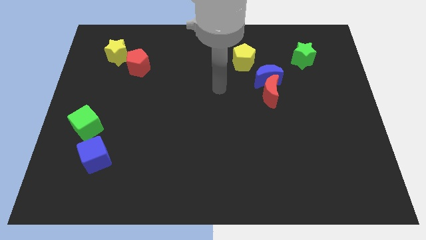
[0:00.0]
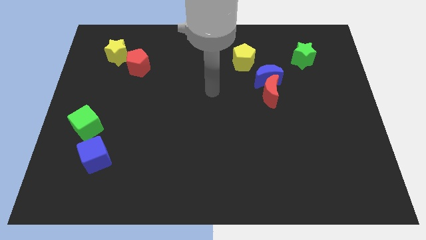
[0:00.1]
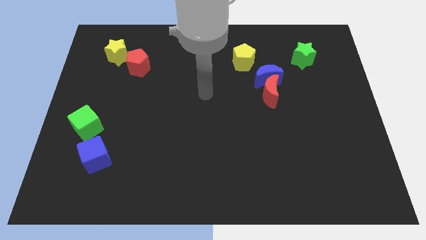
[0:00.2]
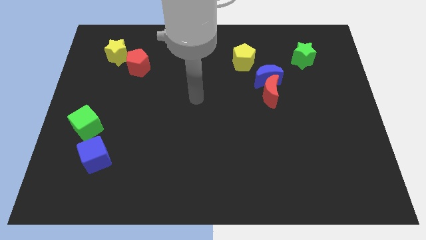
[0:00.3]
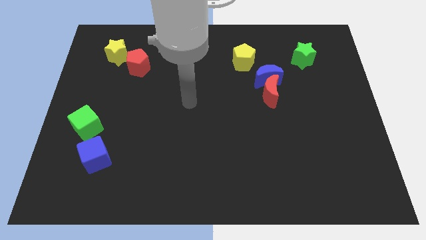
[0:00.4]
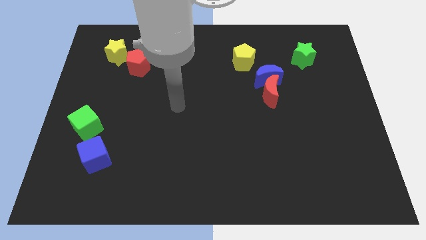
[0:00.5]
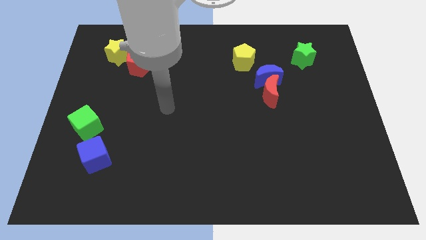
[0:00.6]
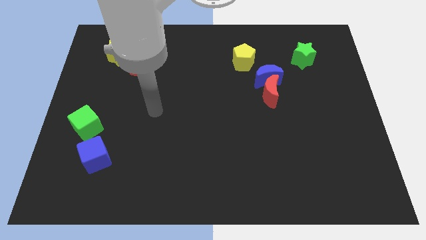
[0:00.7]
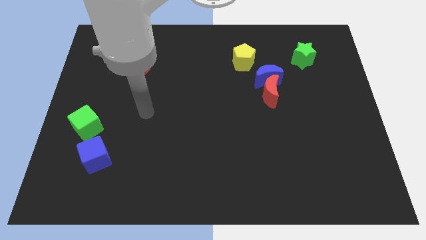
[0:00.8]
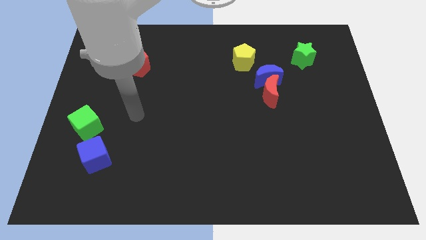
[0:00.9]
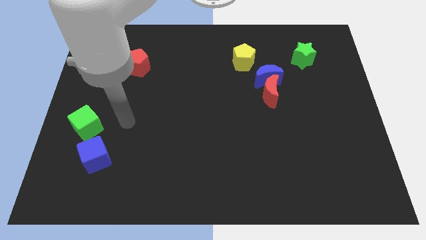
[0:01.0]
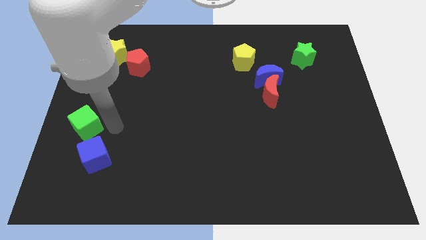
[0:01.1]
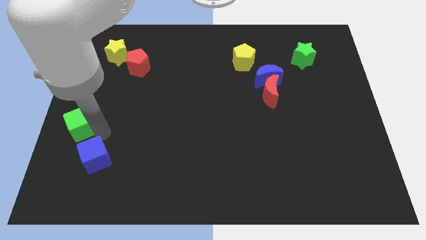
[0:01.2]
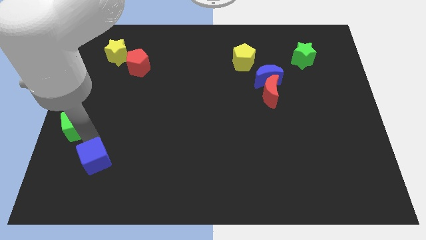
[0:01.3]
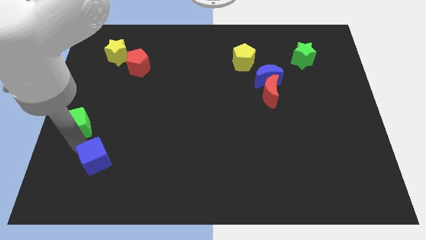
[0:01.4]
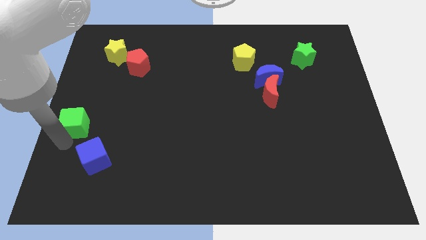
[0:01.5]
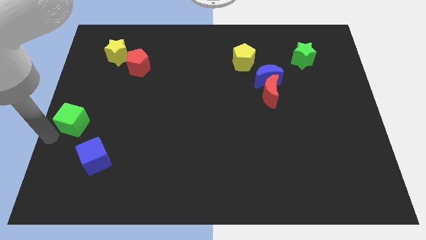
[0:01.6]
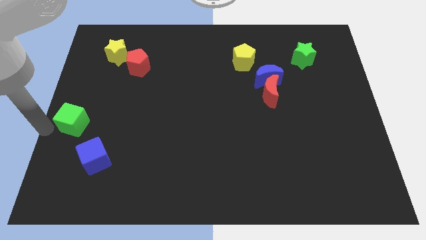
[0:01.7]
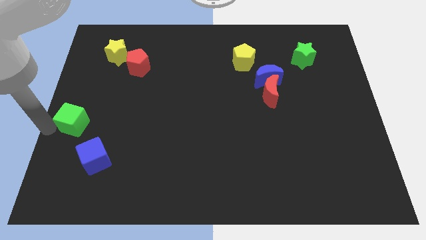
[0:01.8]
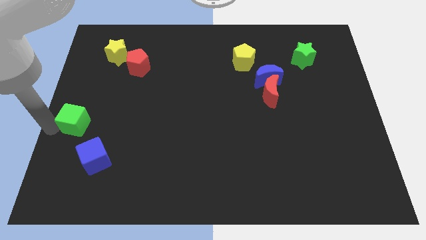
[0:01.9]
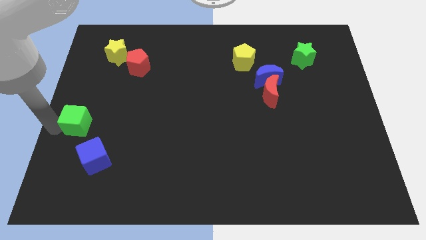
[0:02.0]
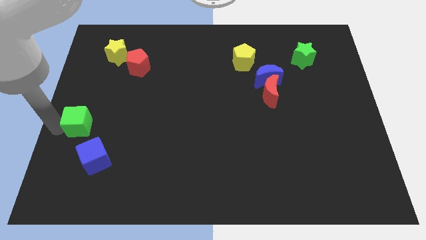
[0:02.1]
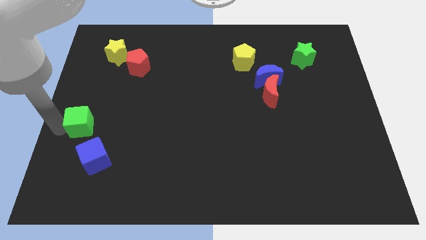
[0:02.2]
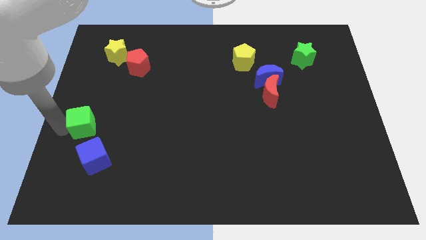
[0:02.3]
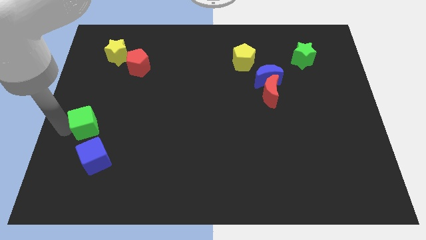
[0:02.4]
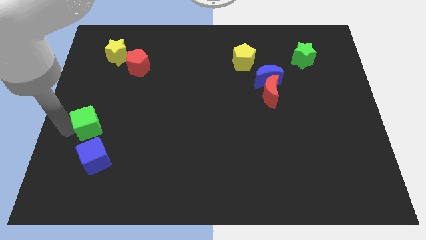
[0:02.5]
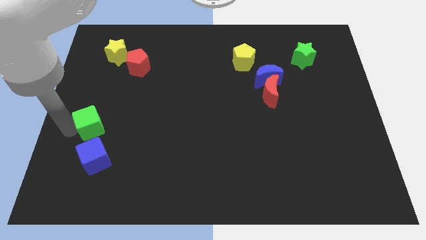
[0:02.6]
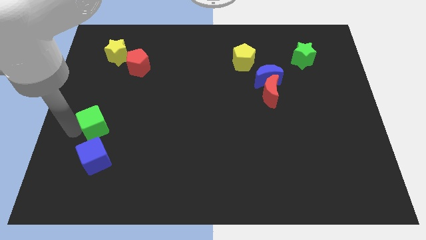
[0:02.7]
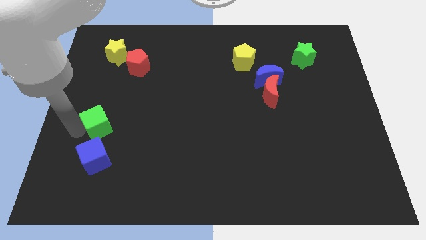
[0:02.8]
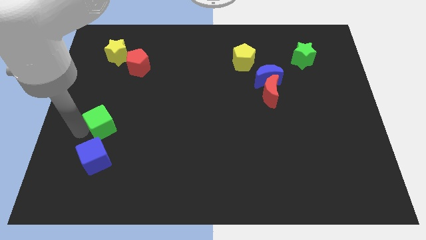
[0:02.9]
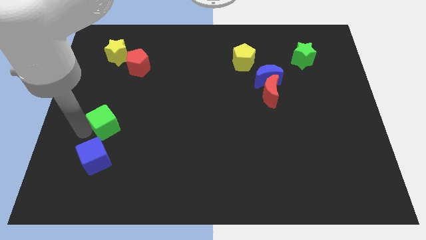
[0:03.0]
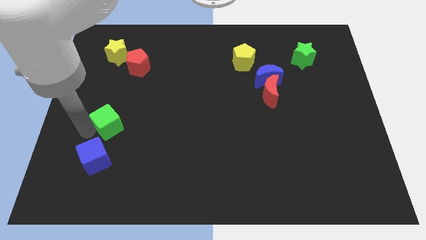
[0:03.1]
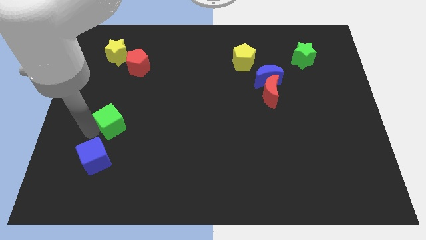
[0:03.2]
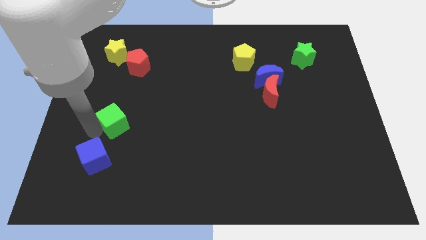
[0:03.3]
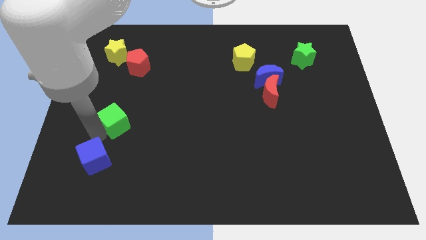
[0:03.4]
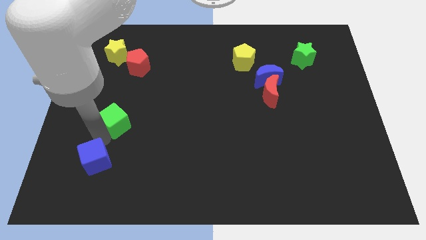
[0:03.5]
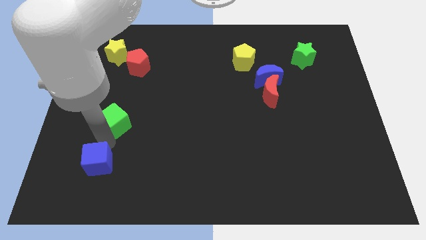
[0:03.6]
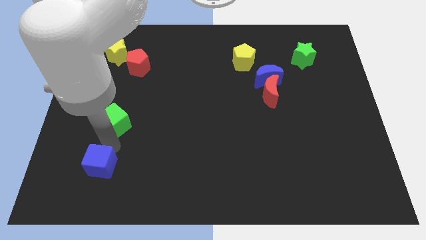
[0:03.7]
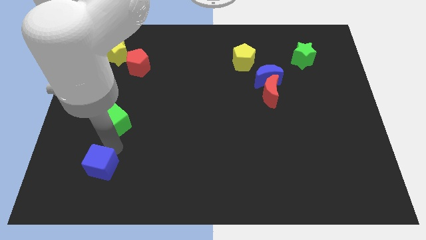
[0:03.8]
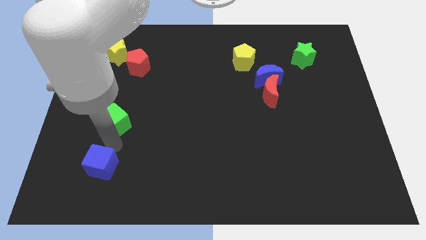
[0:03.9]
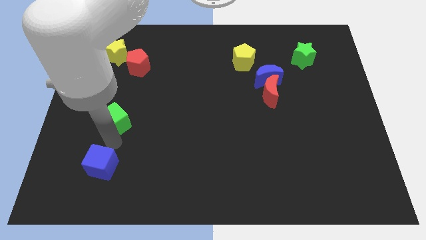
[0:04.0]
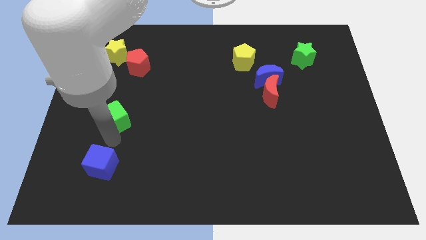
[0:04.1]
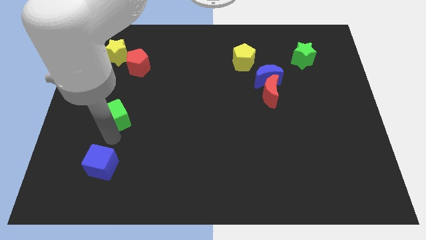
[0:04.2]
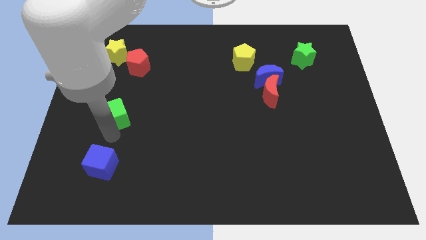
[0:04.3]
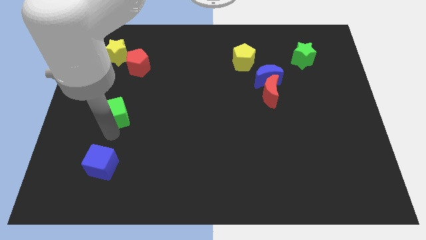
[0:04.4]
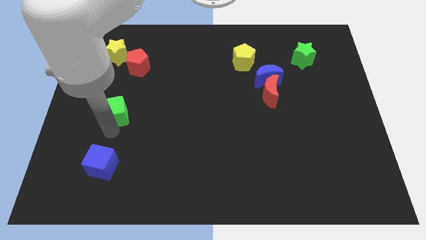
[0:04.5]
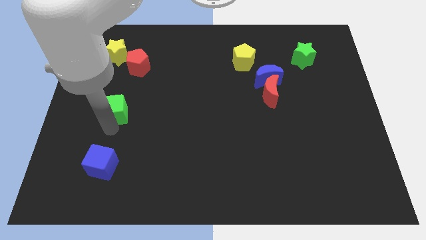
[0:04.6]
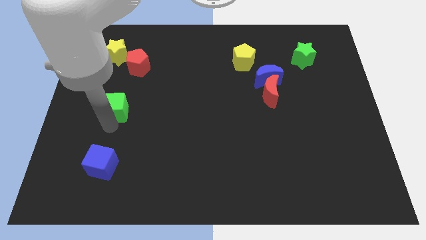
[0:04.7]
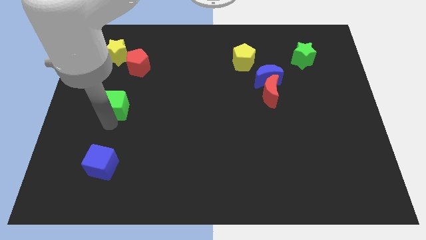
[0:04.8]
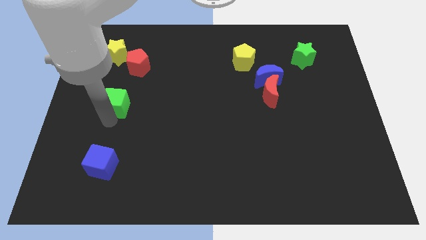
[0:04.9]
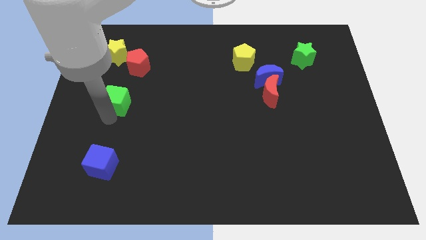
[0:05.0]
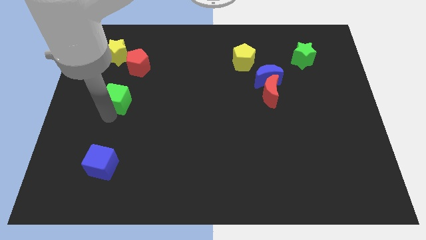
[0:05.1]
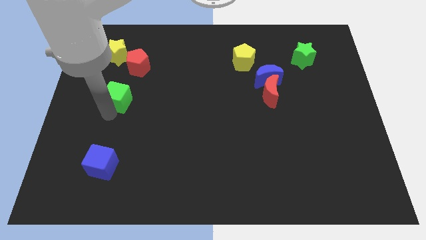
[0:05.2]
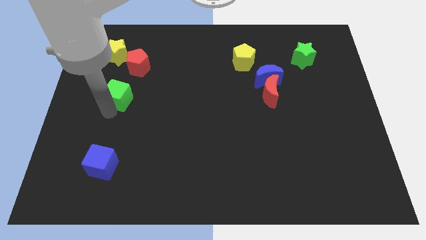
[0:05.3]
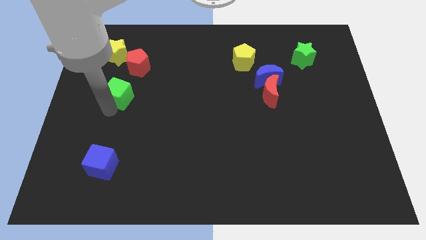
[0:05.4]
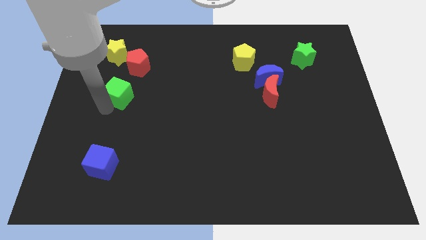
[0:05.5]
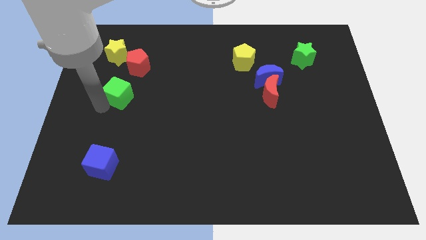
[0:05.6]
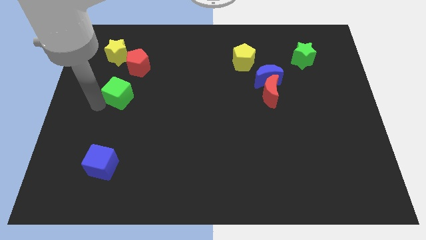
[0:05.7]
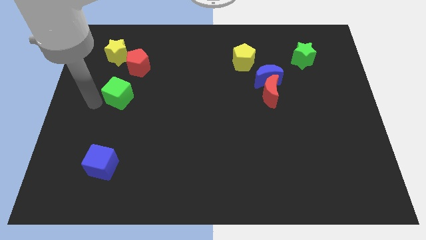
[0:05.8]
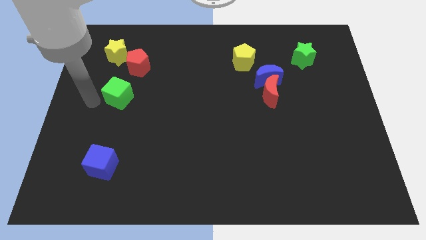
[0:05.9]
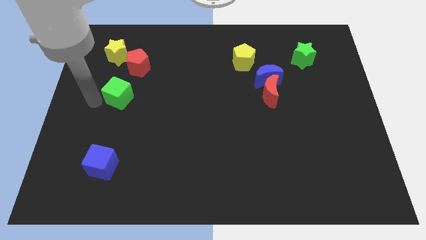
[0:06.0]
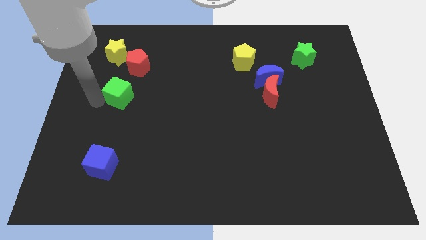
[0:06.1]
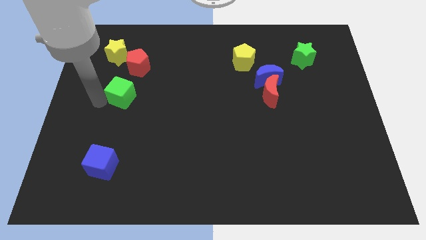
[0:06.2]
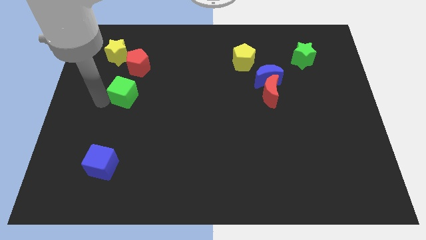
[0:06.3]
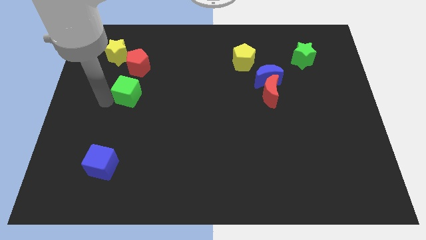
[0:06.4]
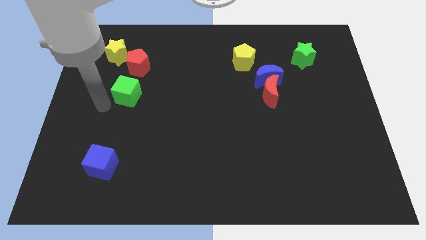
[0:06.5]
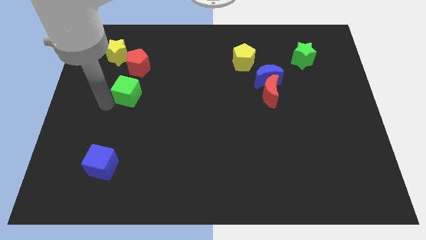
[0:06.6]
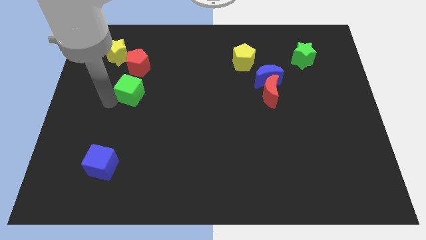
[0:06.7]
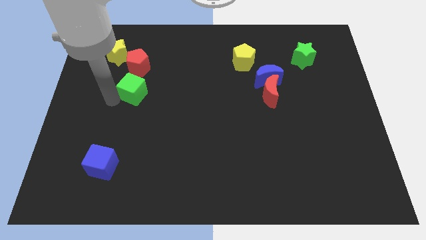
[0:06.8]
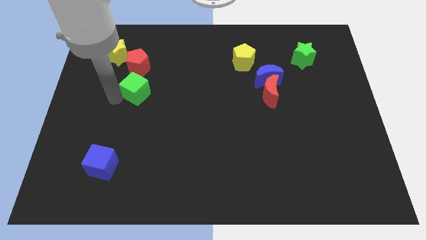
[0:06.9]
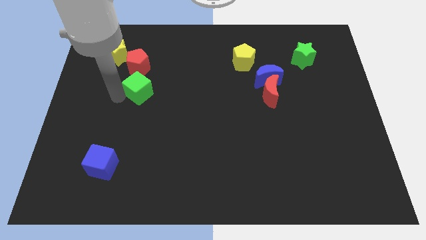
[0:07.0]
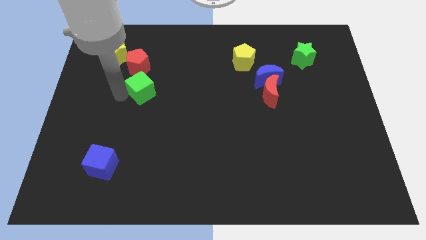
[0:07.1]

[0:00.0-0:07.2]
push the green cube to the bottom right of the red pentagon
